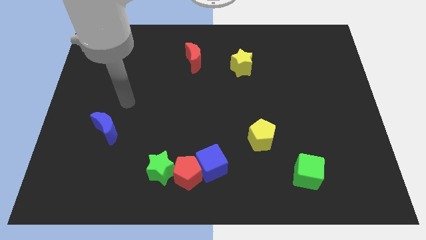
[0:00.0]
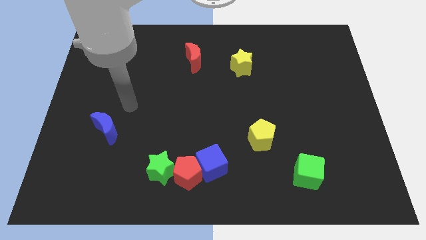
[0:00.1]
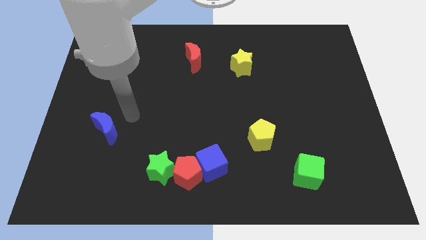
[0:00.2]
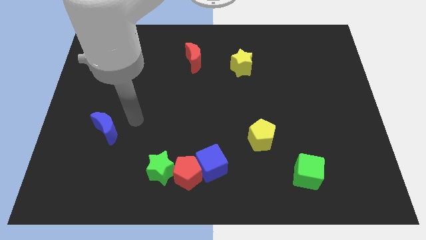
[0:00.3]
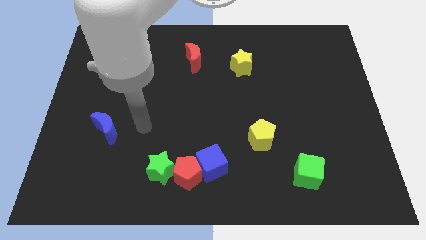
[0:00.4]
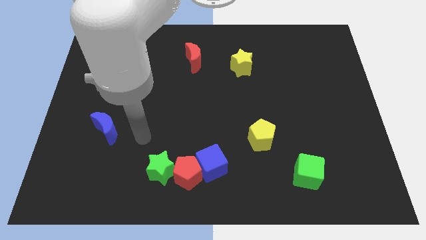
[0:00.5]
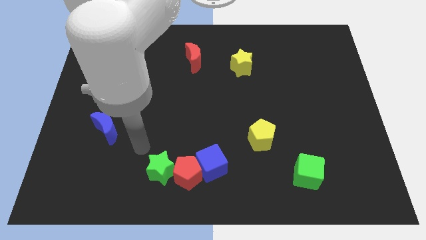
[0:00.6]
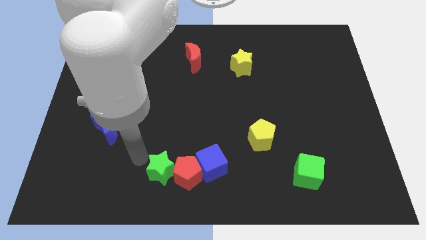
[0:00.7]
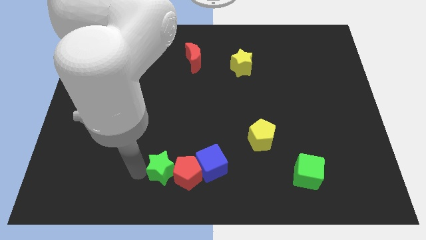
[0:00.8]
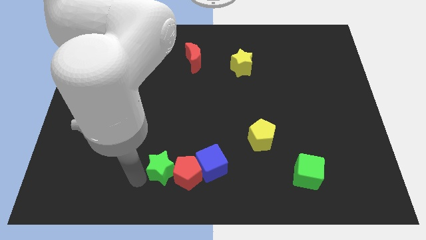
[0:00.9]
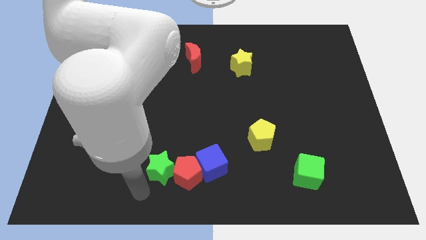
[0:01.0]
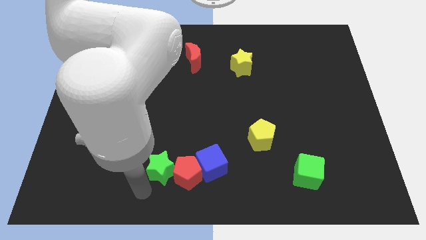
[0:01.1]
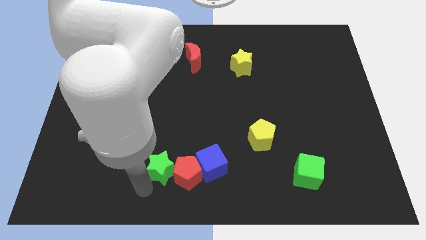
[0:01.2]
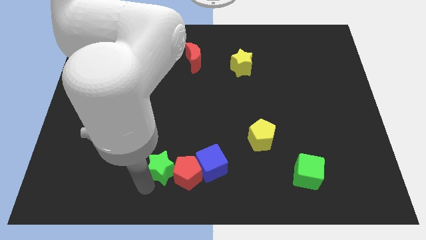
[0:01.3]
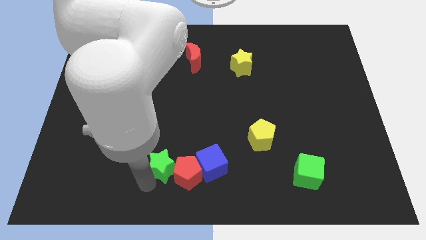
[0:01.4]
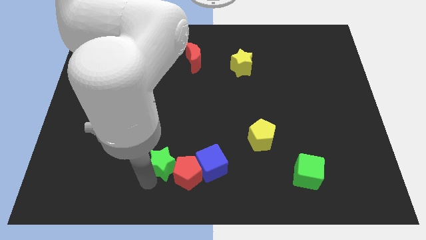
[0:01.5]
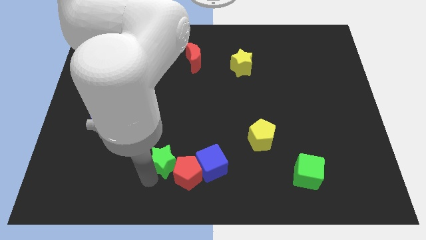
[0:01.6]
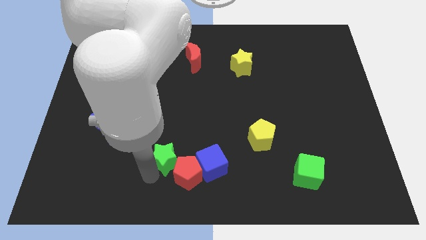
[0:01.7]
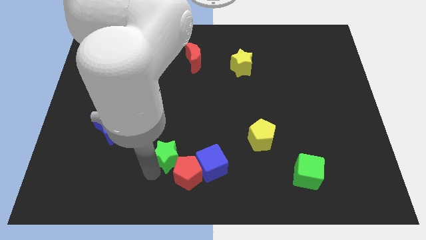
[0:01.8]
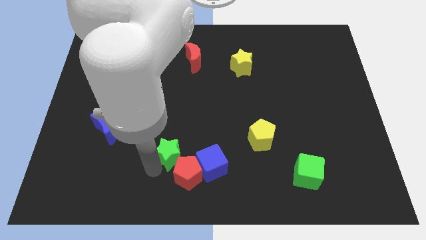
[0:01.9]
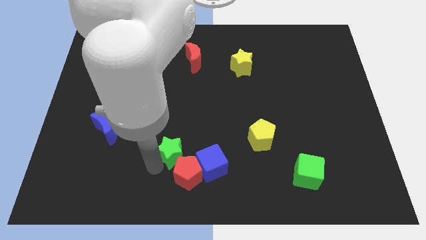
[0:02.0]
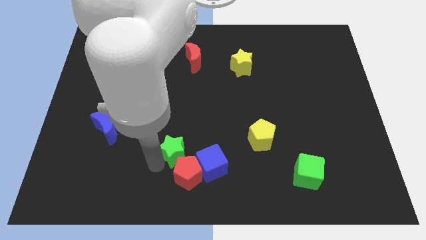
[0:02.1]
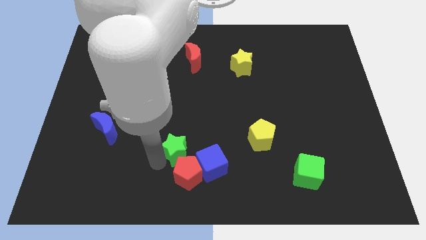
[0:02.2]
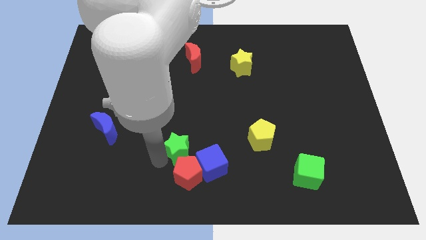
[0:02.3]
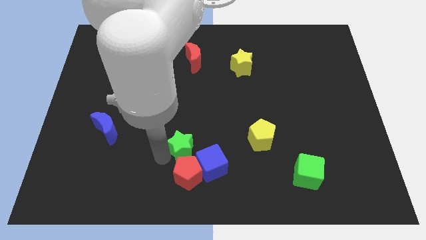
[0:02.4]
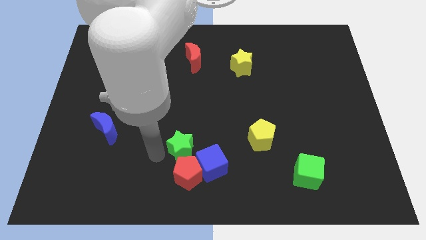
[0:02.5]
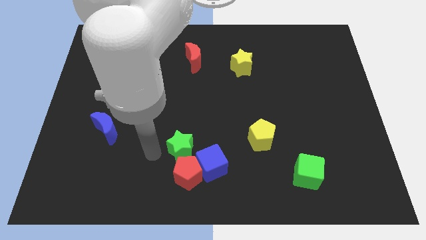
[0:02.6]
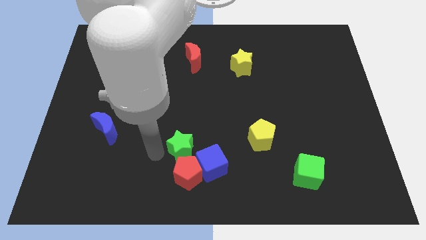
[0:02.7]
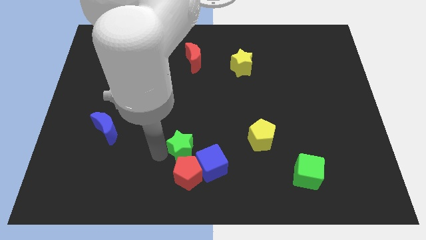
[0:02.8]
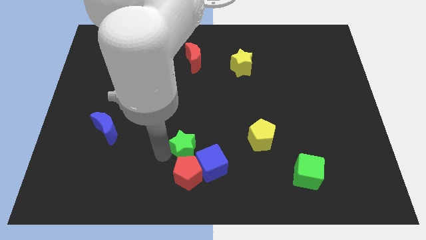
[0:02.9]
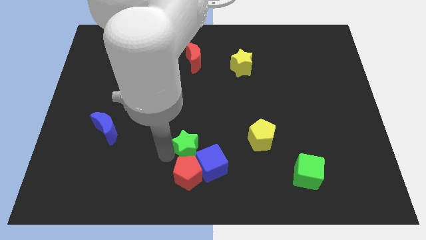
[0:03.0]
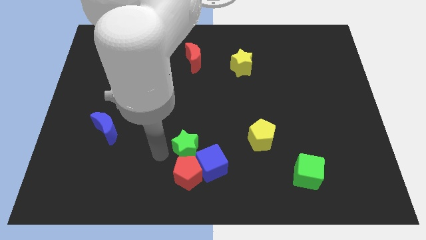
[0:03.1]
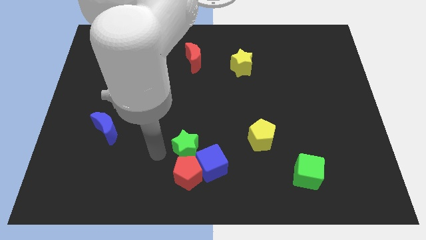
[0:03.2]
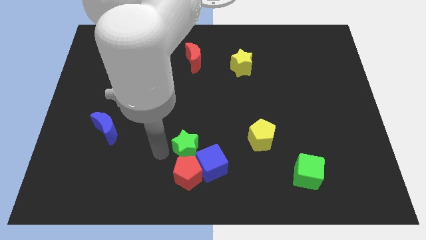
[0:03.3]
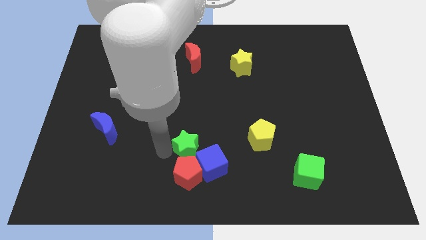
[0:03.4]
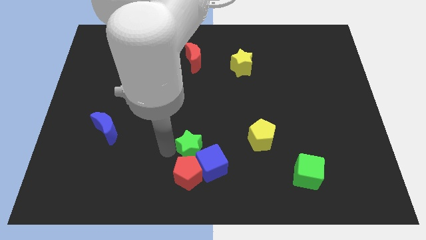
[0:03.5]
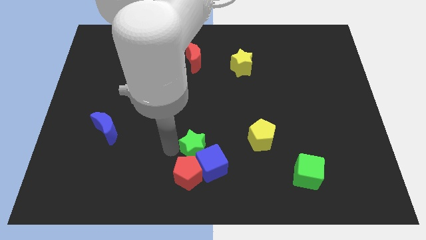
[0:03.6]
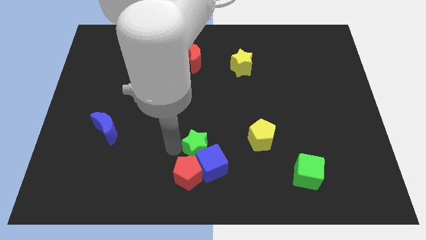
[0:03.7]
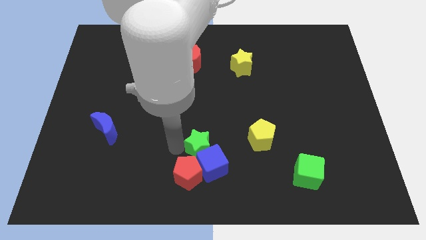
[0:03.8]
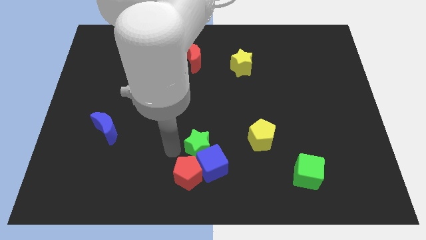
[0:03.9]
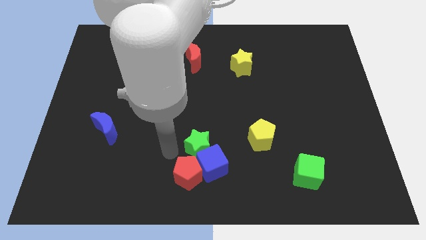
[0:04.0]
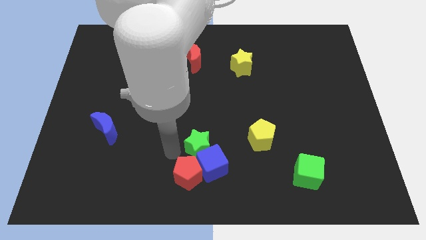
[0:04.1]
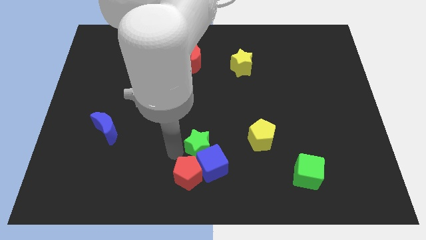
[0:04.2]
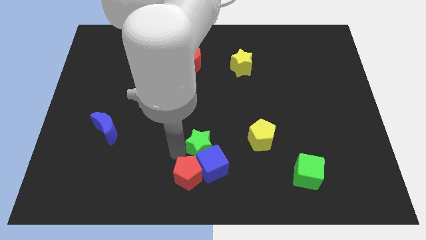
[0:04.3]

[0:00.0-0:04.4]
slide the green star a little to the right

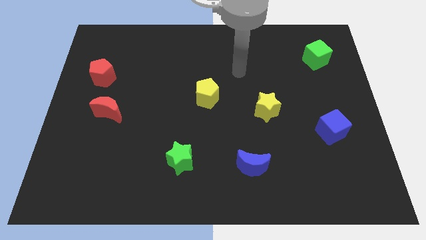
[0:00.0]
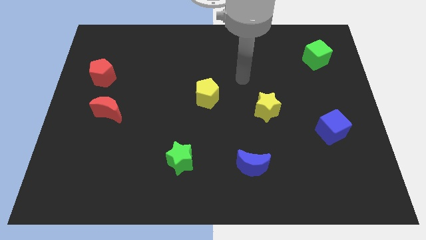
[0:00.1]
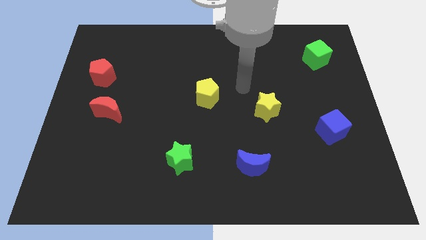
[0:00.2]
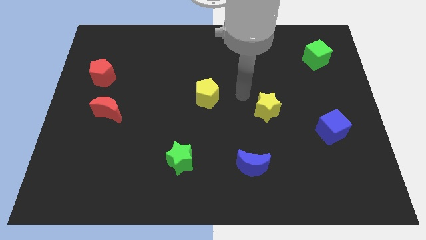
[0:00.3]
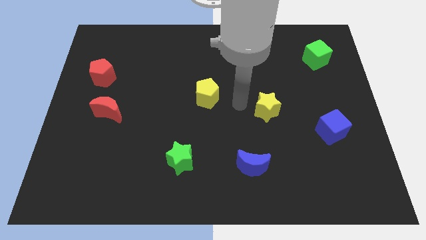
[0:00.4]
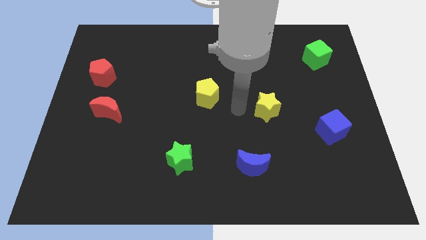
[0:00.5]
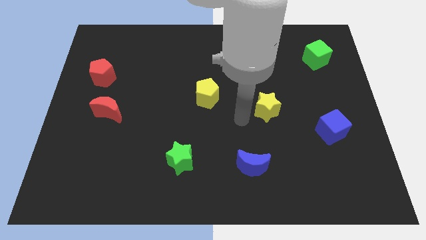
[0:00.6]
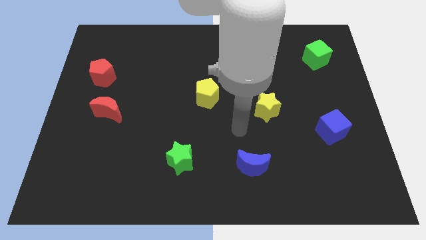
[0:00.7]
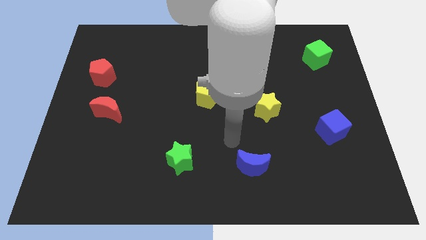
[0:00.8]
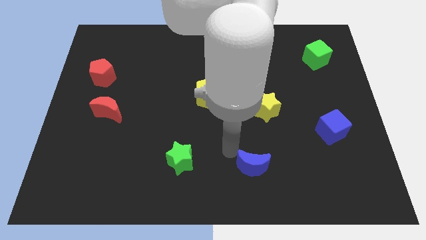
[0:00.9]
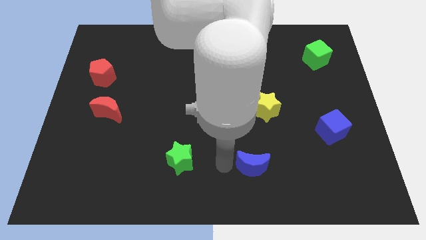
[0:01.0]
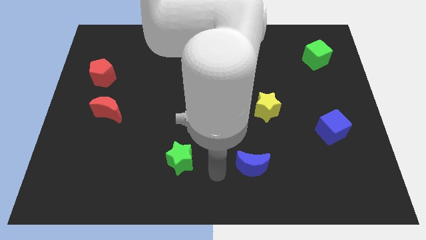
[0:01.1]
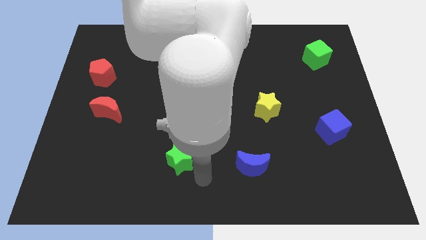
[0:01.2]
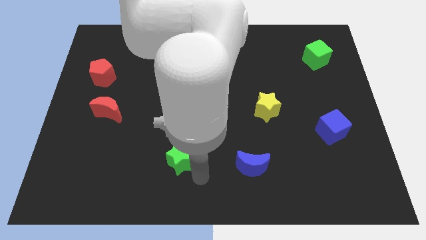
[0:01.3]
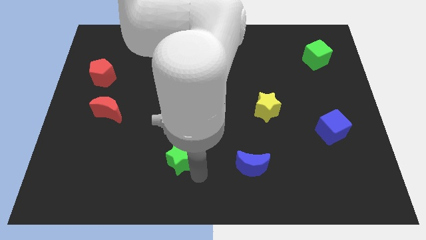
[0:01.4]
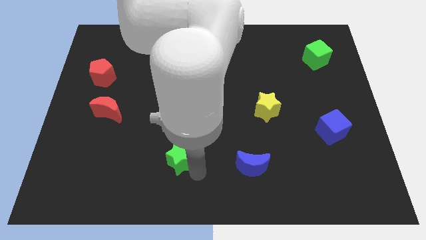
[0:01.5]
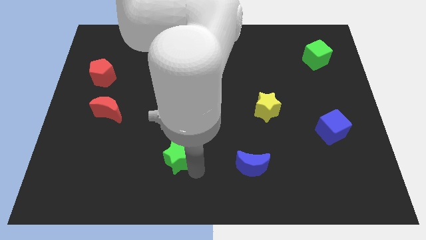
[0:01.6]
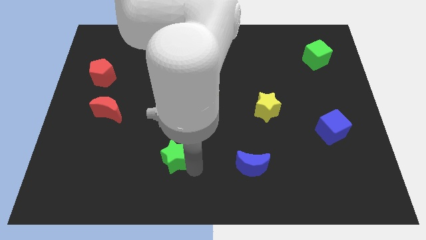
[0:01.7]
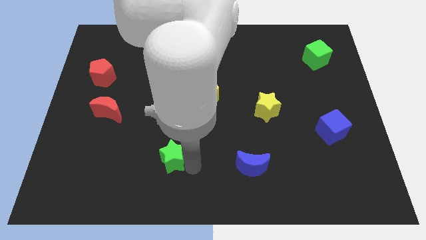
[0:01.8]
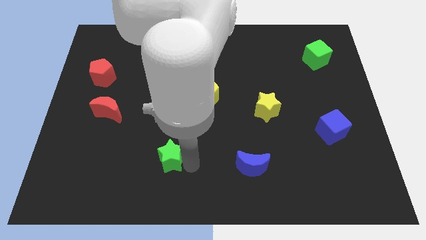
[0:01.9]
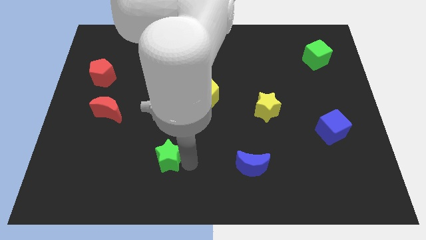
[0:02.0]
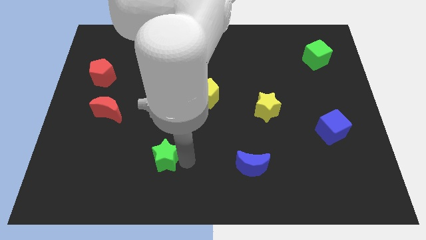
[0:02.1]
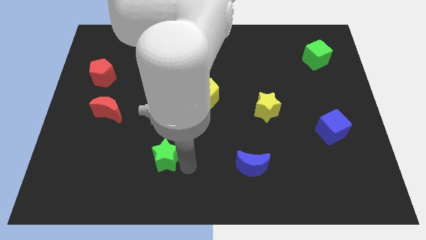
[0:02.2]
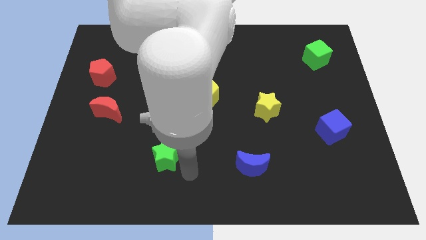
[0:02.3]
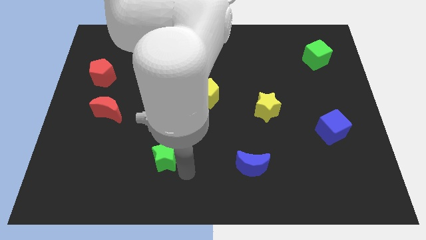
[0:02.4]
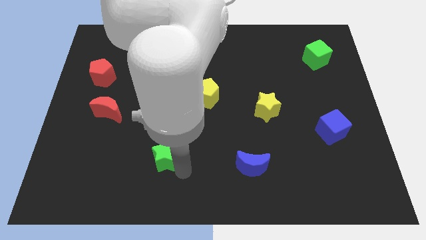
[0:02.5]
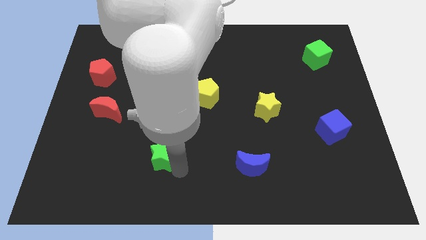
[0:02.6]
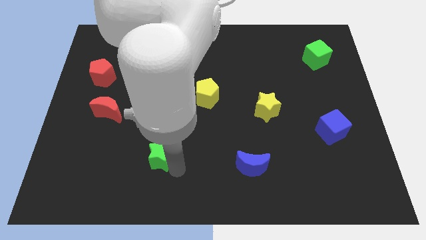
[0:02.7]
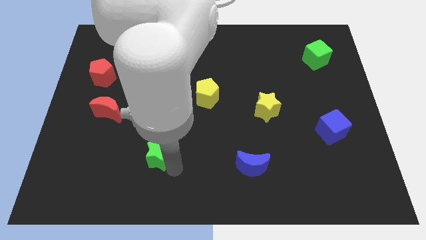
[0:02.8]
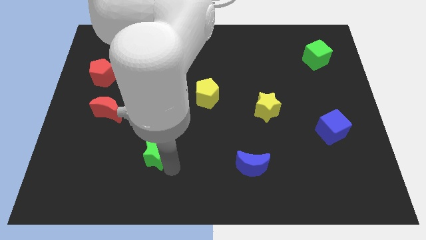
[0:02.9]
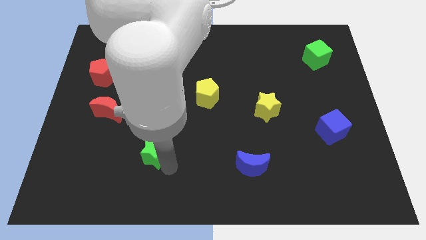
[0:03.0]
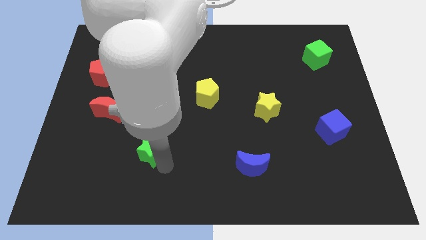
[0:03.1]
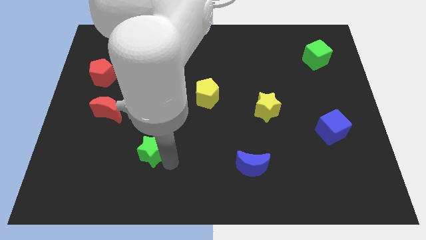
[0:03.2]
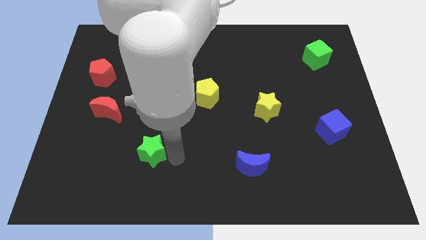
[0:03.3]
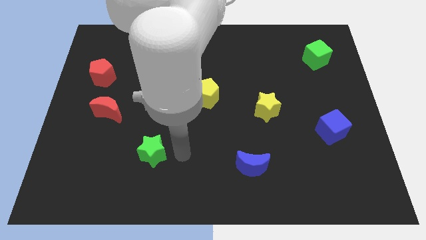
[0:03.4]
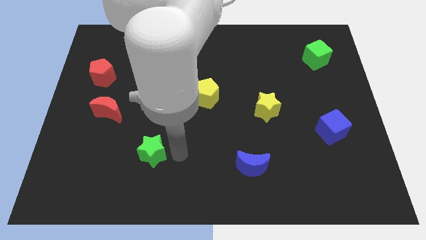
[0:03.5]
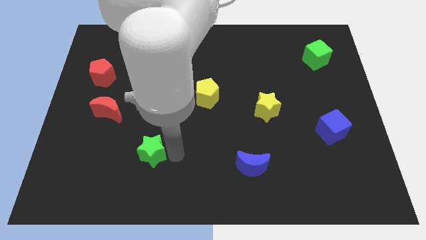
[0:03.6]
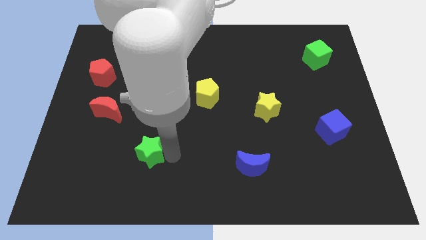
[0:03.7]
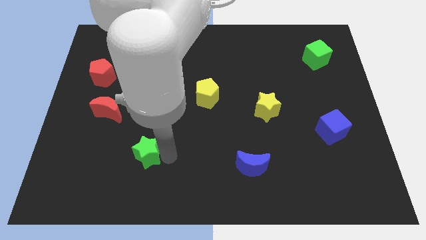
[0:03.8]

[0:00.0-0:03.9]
slide the green star a bit to the left
